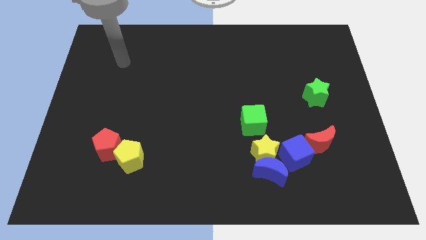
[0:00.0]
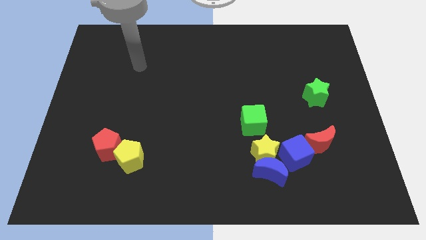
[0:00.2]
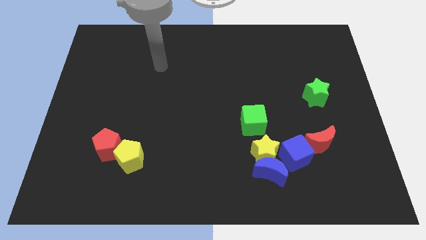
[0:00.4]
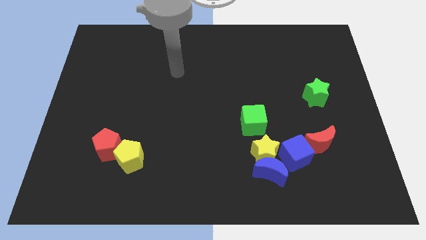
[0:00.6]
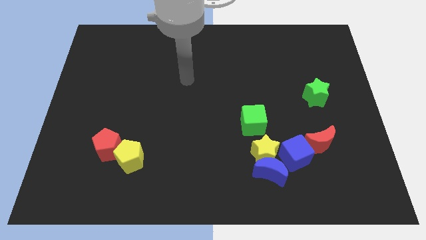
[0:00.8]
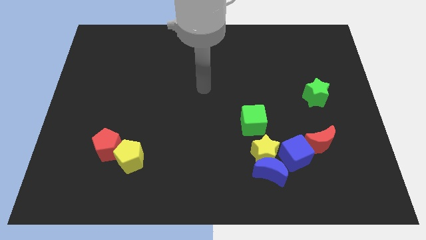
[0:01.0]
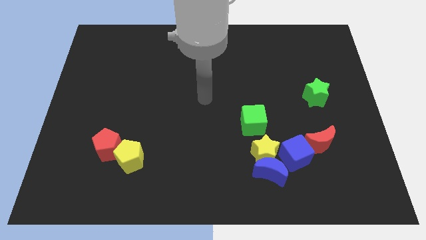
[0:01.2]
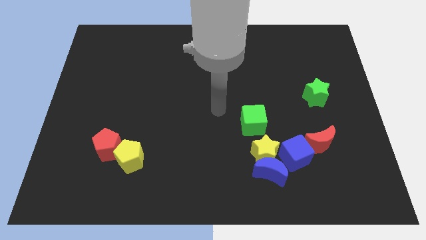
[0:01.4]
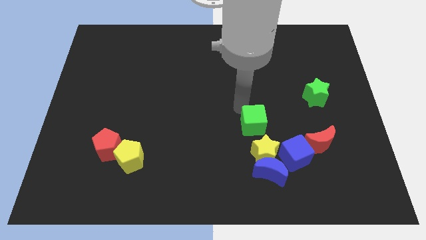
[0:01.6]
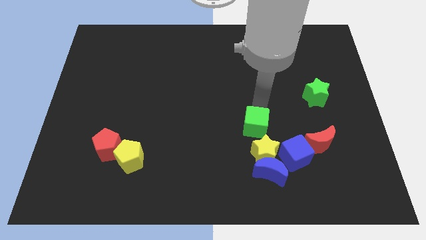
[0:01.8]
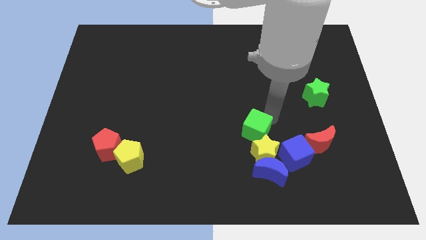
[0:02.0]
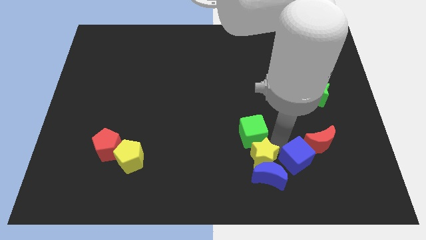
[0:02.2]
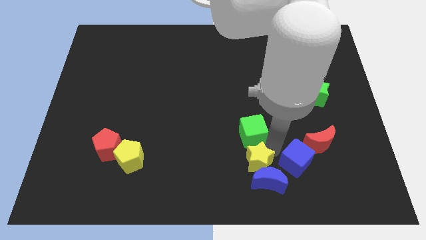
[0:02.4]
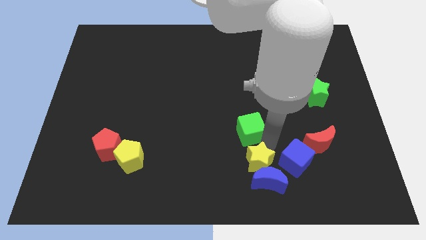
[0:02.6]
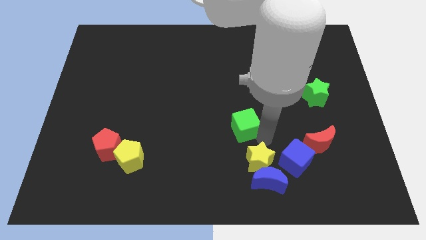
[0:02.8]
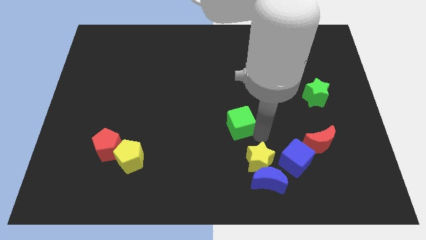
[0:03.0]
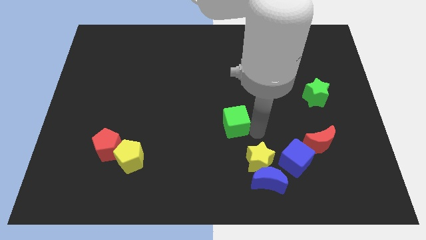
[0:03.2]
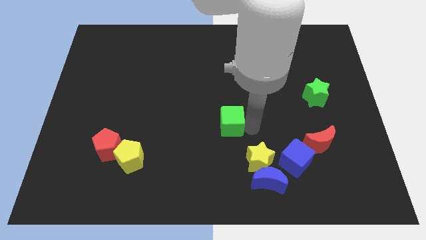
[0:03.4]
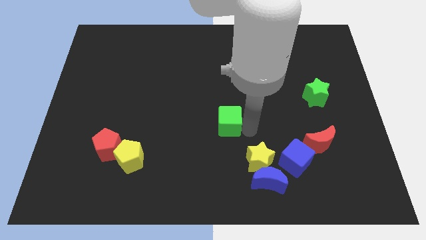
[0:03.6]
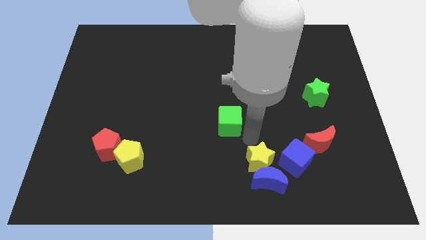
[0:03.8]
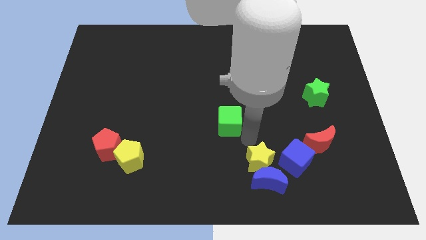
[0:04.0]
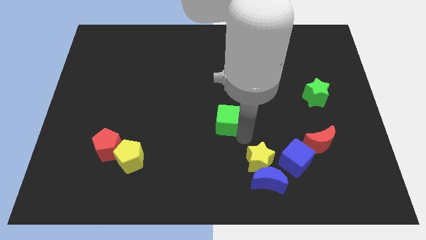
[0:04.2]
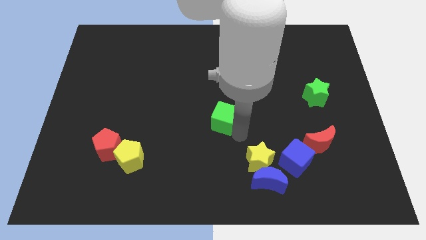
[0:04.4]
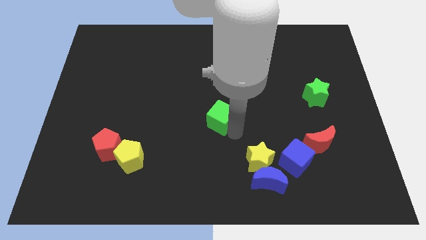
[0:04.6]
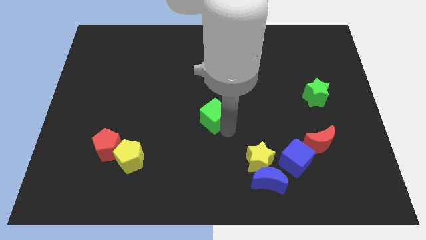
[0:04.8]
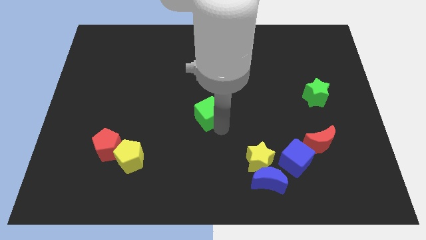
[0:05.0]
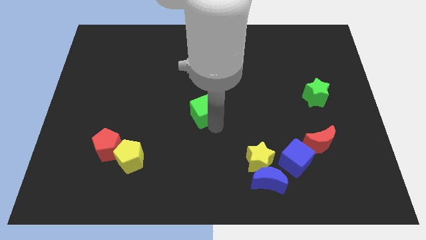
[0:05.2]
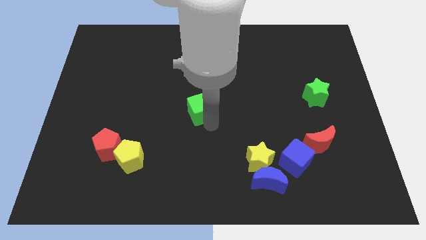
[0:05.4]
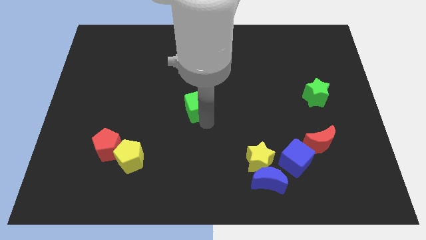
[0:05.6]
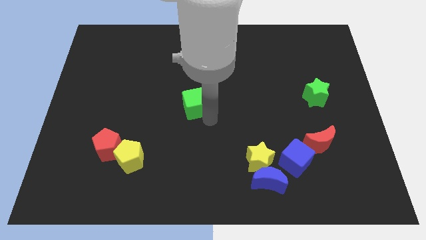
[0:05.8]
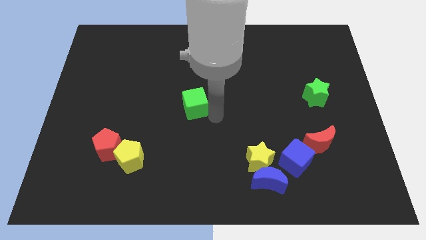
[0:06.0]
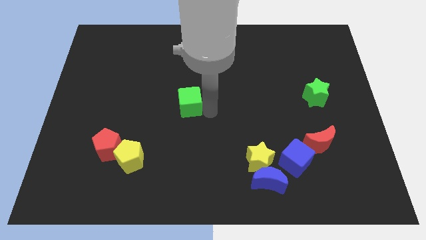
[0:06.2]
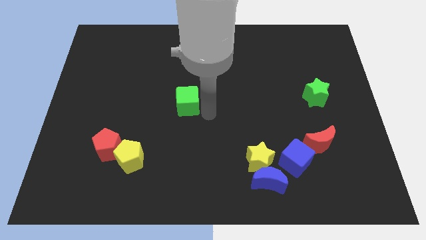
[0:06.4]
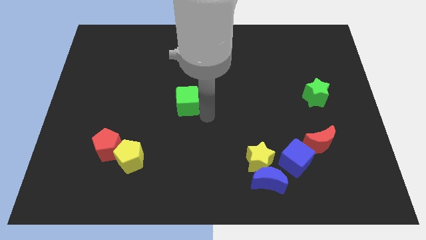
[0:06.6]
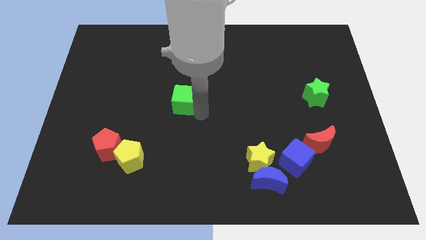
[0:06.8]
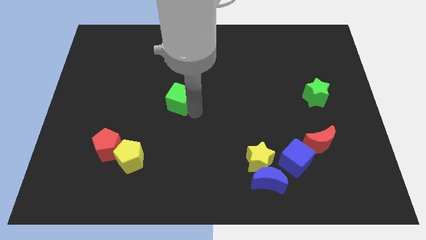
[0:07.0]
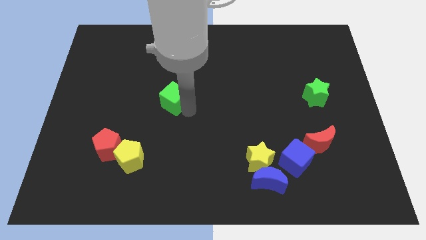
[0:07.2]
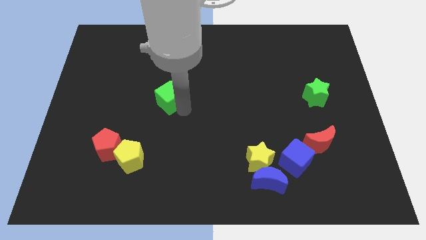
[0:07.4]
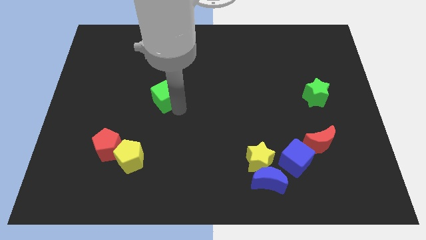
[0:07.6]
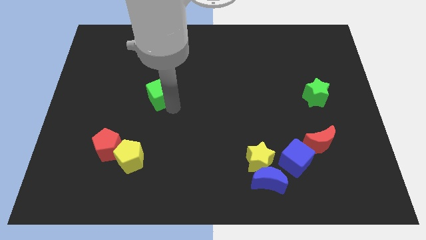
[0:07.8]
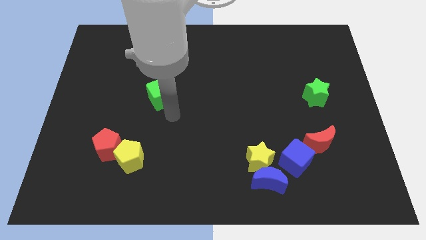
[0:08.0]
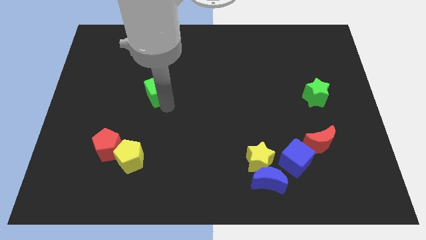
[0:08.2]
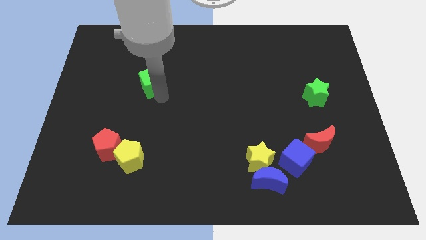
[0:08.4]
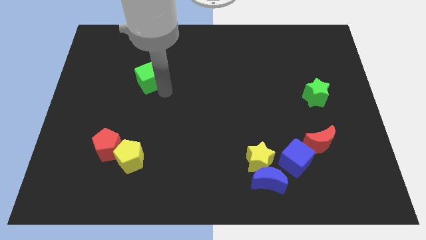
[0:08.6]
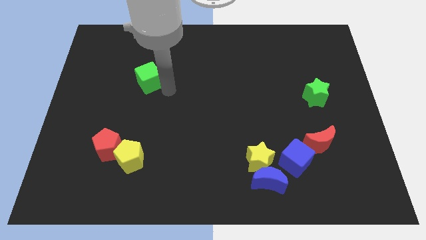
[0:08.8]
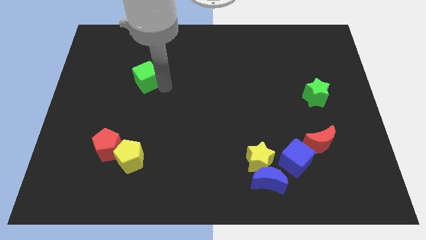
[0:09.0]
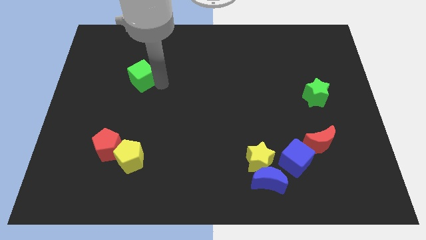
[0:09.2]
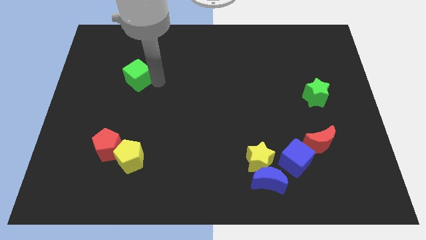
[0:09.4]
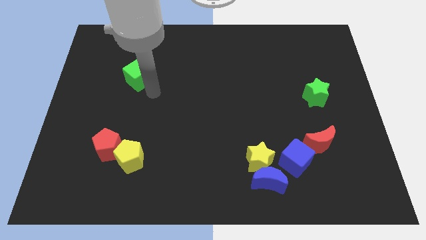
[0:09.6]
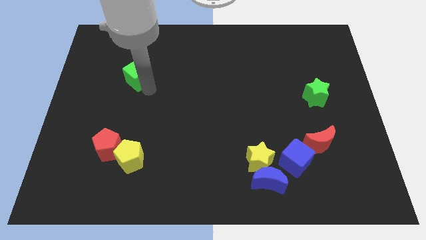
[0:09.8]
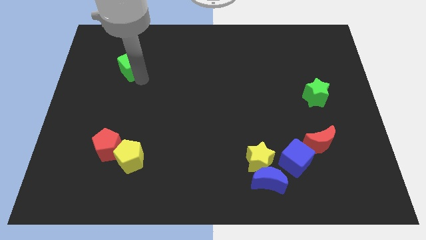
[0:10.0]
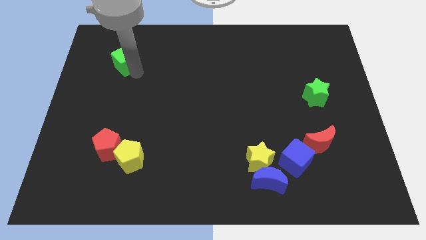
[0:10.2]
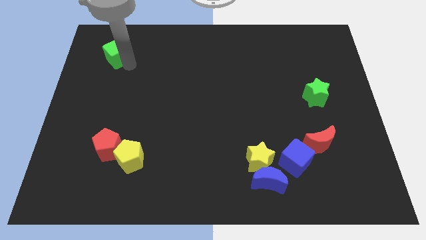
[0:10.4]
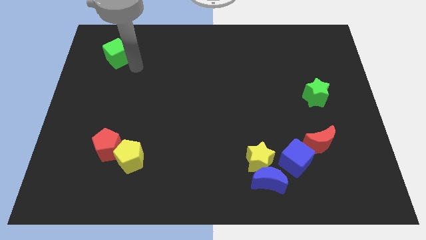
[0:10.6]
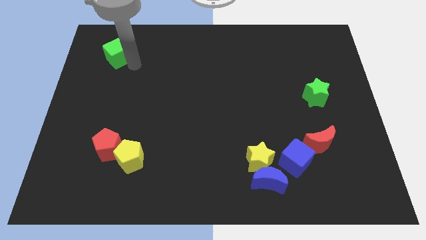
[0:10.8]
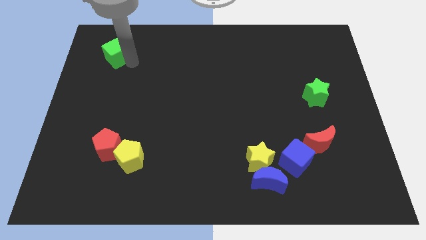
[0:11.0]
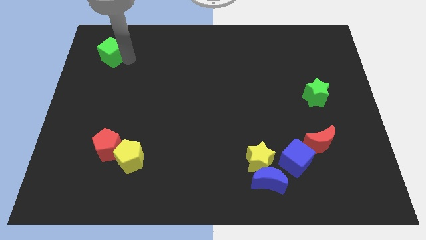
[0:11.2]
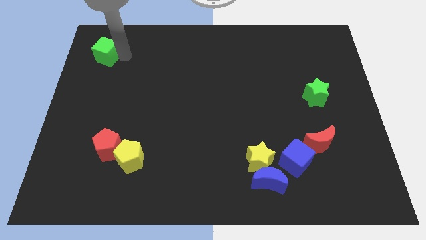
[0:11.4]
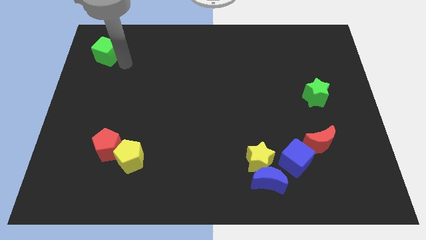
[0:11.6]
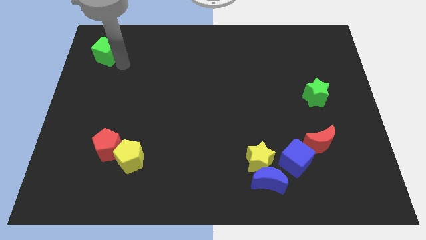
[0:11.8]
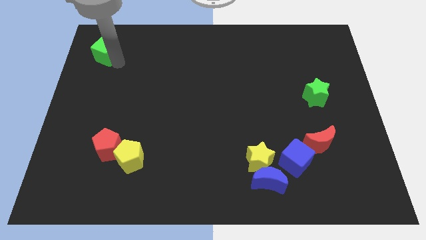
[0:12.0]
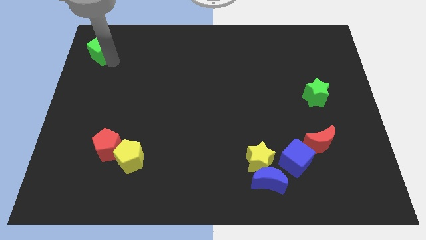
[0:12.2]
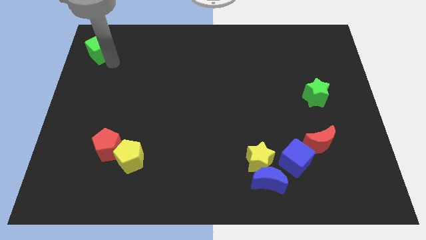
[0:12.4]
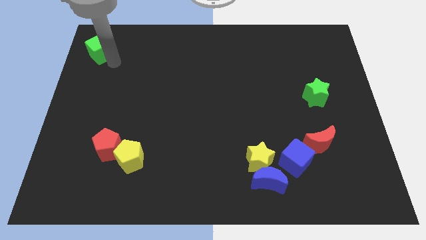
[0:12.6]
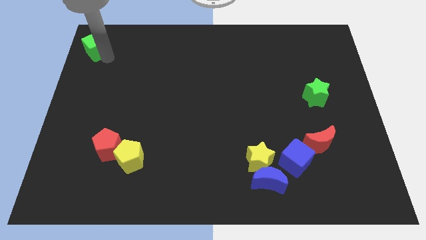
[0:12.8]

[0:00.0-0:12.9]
put the green cube to the top left of the board
